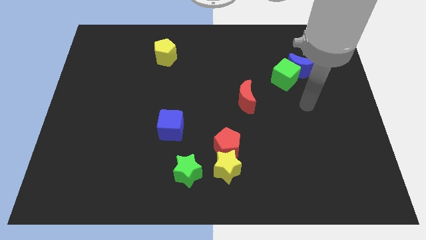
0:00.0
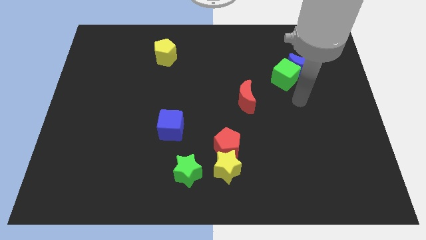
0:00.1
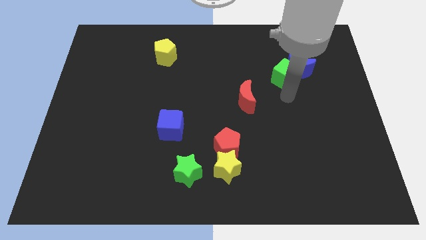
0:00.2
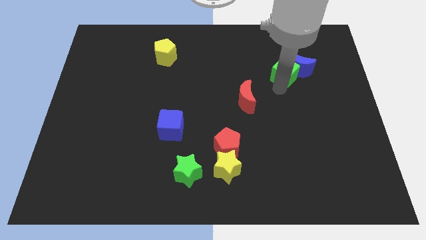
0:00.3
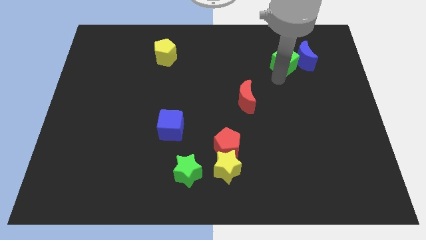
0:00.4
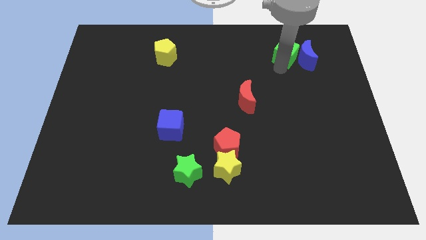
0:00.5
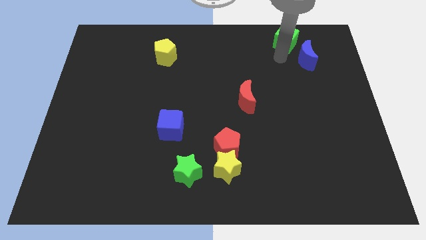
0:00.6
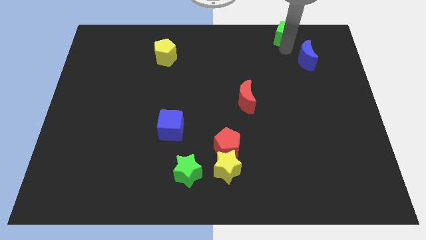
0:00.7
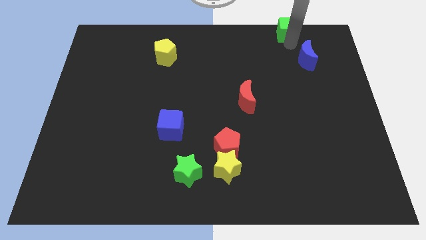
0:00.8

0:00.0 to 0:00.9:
separate the blue moon from the green cube

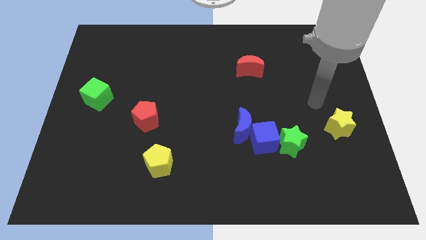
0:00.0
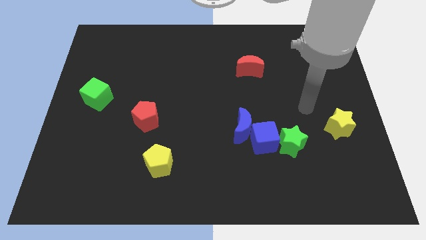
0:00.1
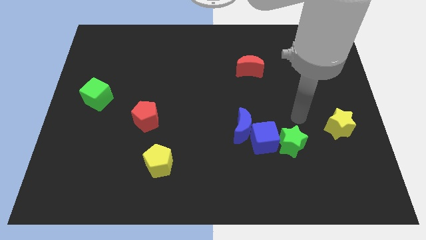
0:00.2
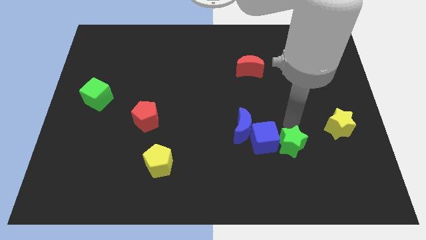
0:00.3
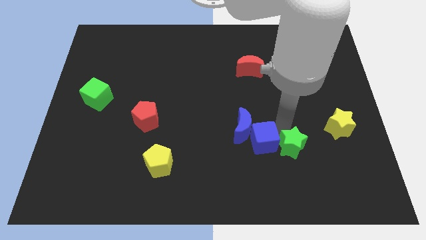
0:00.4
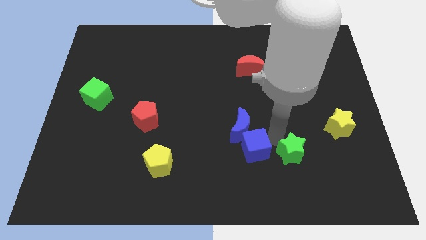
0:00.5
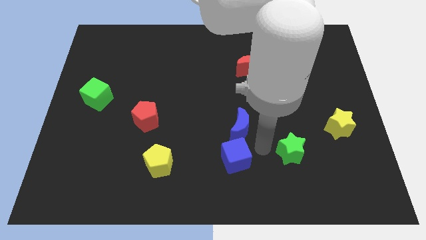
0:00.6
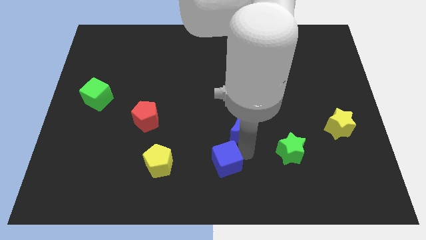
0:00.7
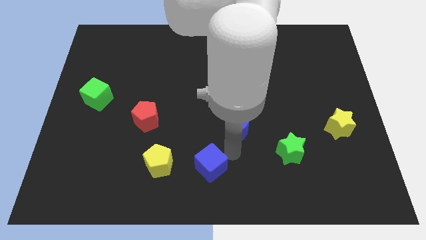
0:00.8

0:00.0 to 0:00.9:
move the blue moon away from the blue cube

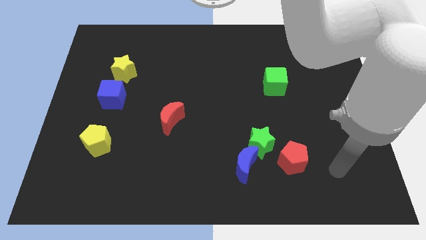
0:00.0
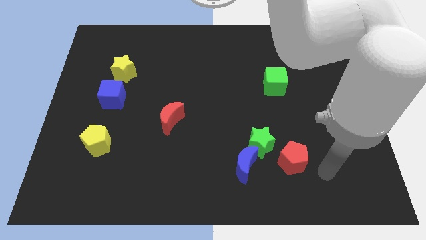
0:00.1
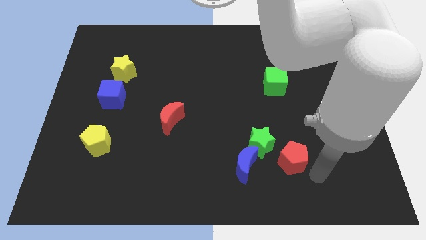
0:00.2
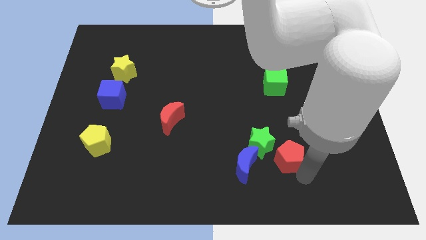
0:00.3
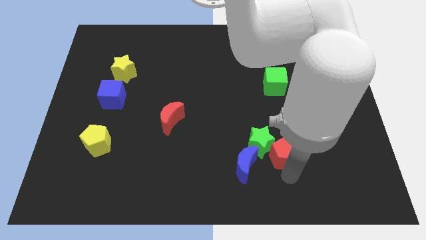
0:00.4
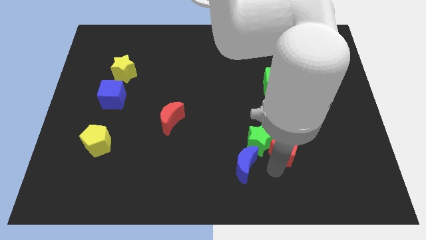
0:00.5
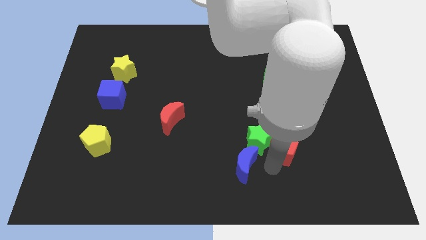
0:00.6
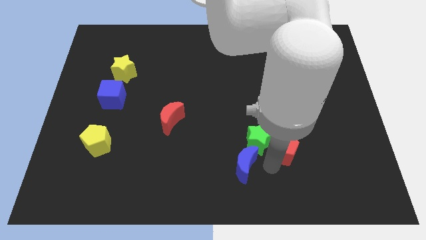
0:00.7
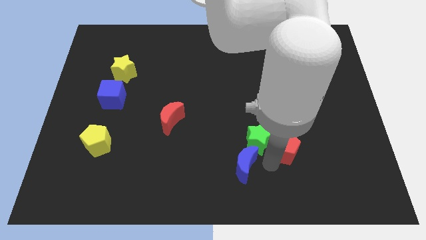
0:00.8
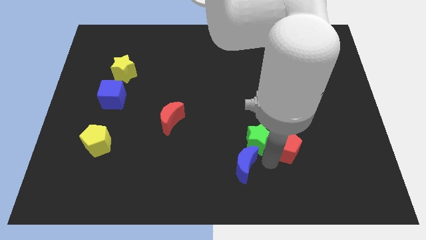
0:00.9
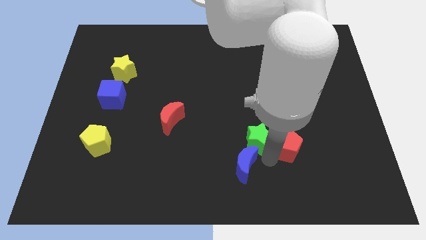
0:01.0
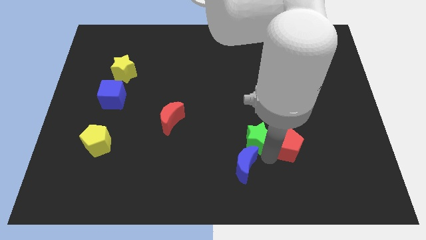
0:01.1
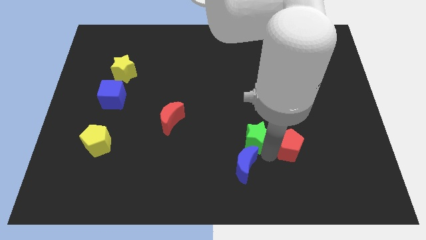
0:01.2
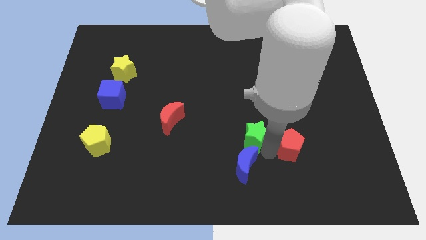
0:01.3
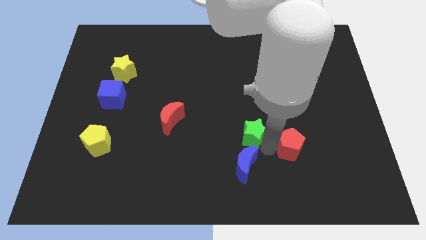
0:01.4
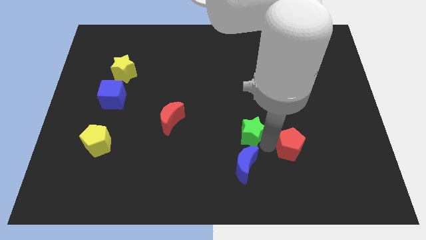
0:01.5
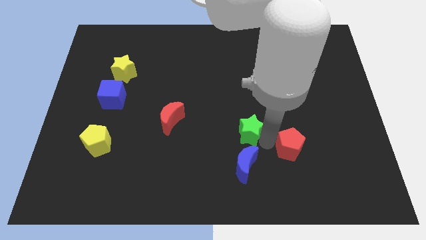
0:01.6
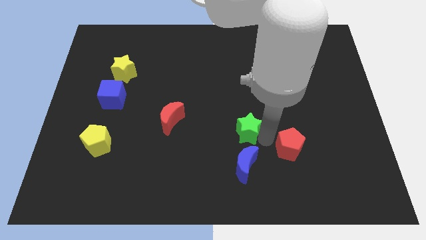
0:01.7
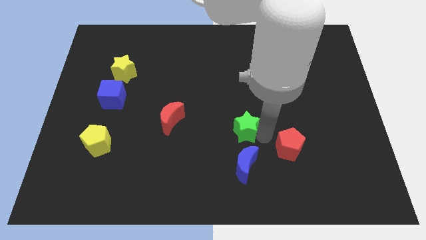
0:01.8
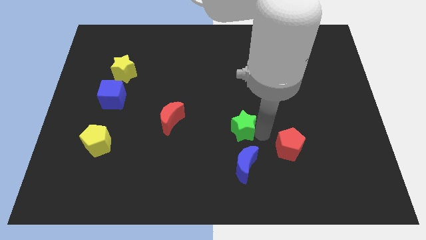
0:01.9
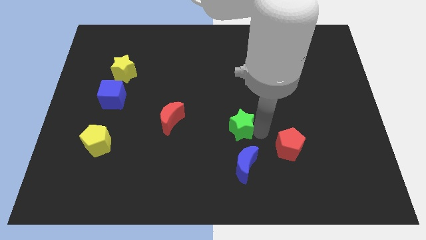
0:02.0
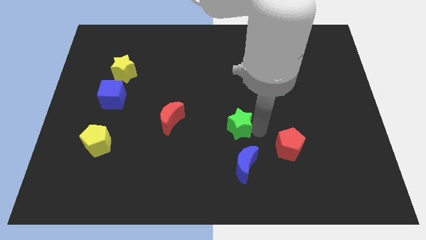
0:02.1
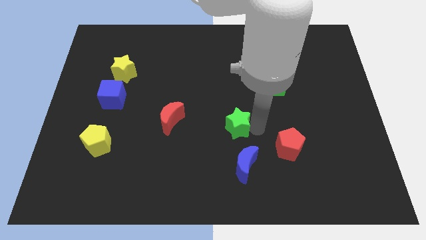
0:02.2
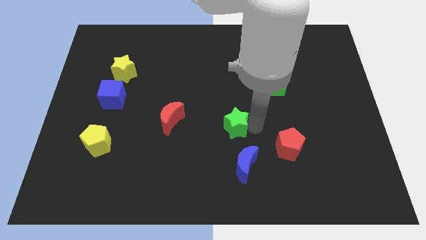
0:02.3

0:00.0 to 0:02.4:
separate the green star from the blue moon and red pentagon

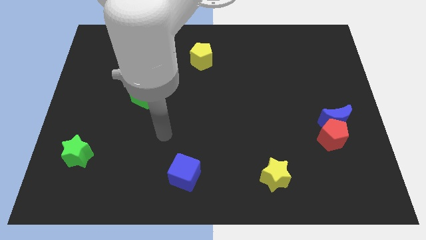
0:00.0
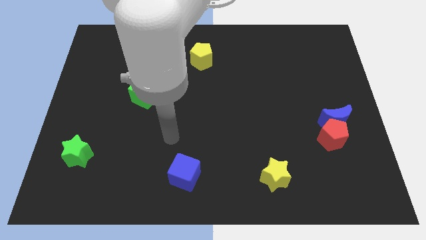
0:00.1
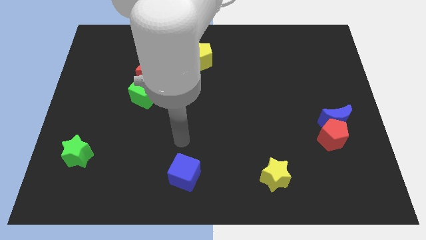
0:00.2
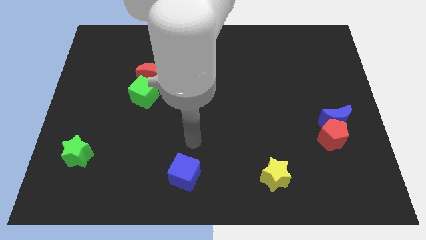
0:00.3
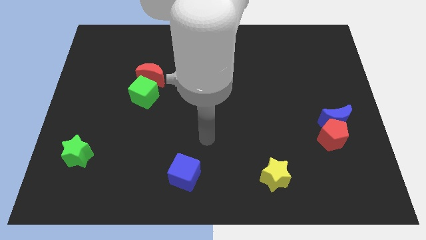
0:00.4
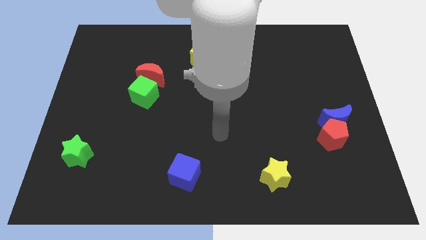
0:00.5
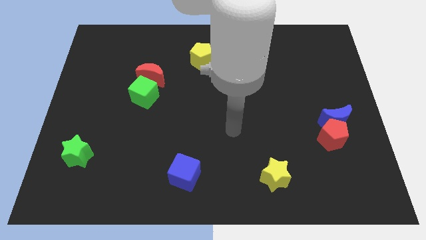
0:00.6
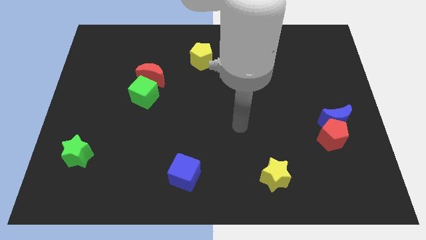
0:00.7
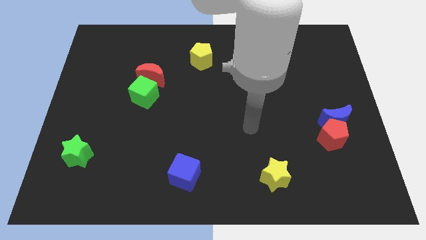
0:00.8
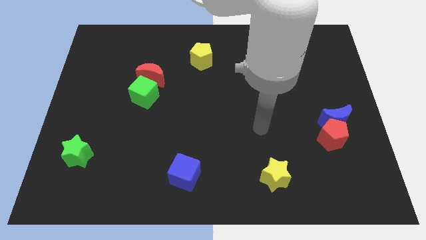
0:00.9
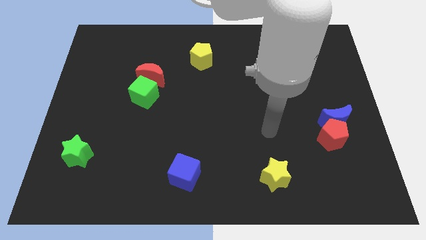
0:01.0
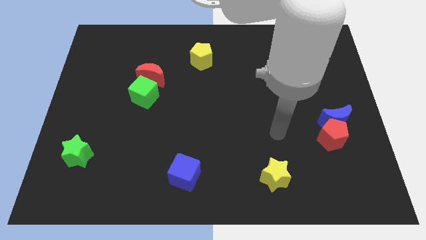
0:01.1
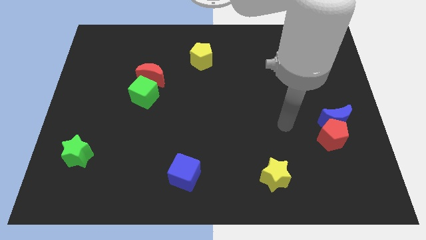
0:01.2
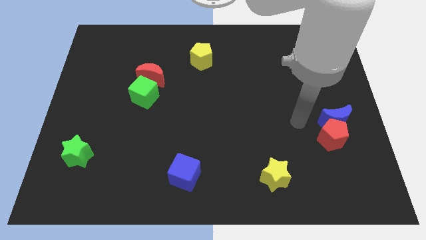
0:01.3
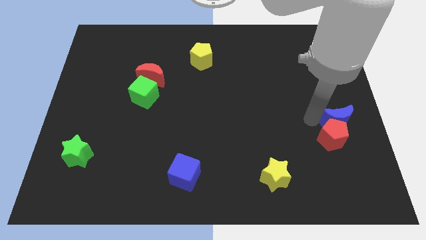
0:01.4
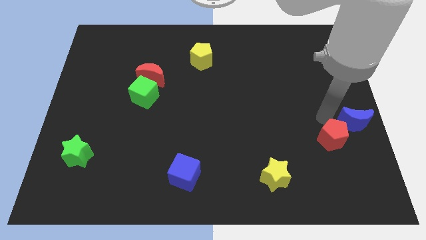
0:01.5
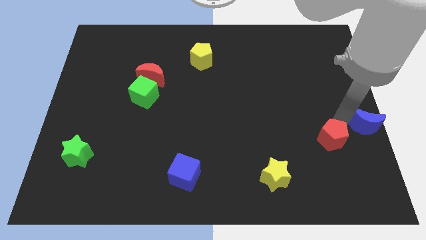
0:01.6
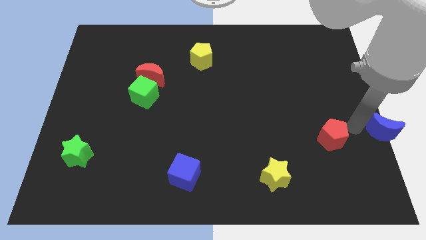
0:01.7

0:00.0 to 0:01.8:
move the red pentagon away from the blue moon

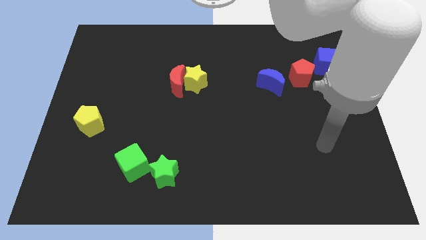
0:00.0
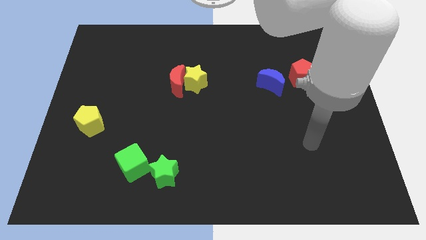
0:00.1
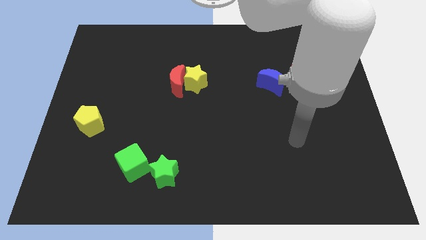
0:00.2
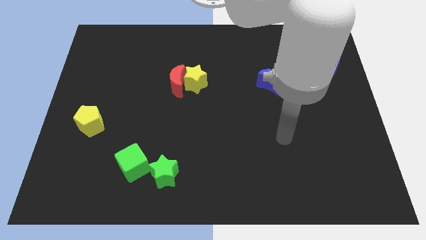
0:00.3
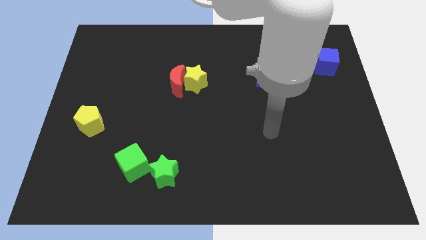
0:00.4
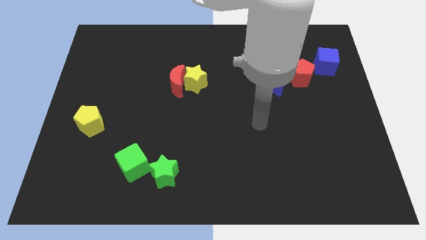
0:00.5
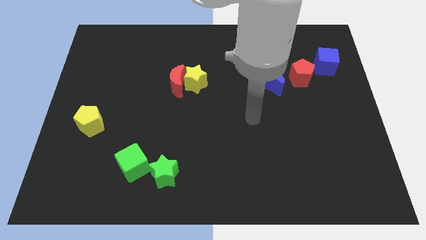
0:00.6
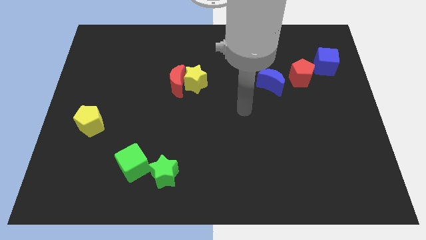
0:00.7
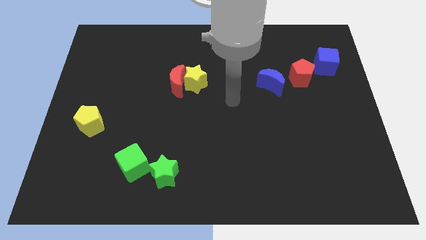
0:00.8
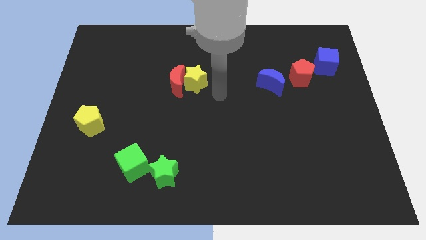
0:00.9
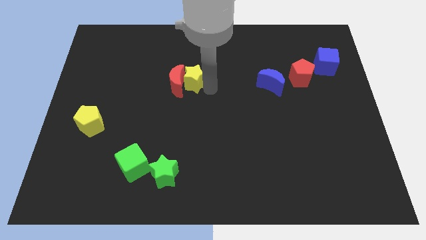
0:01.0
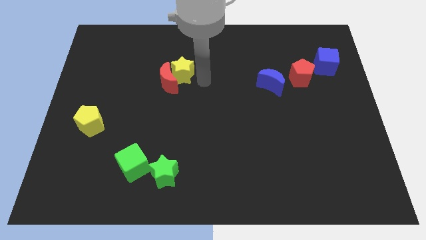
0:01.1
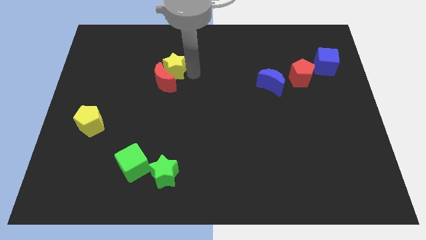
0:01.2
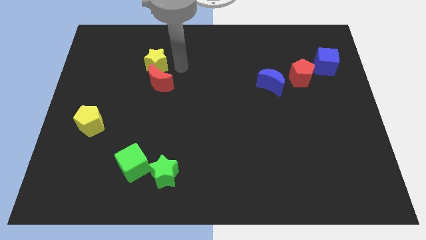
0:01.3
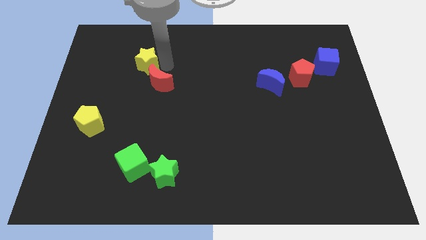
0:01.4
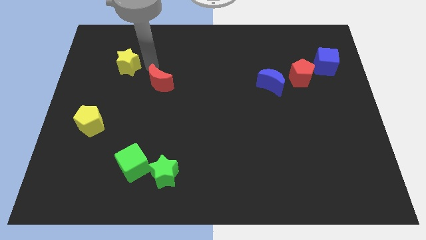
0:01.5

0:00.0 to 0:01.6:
pull the red moon apart from the yellow star

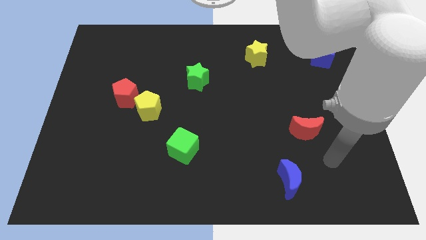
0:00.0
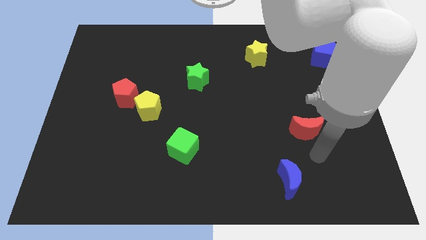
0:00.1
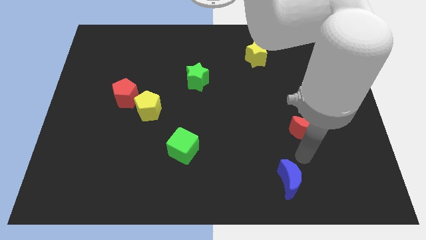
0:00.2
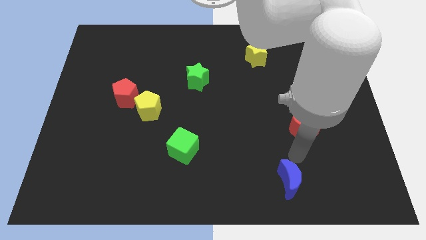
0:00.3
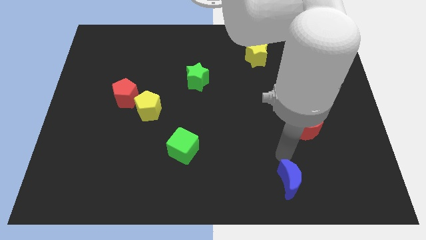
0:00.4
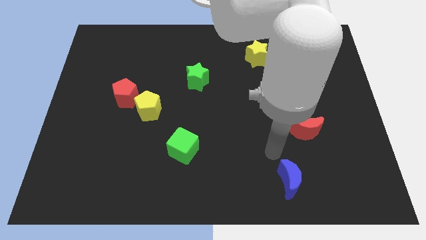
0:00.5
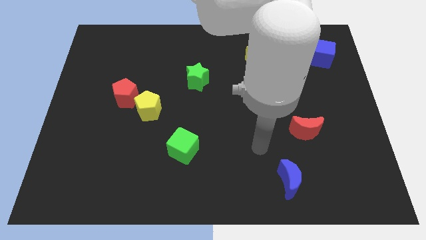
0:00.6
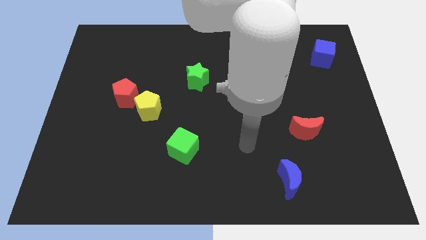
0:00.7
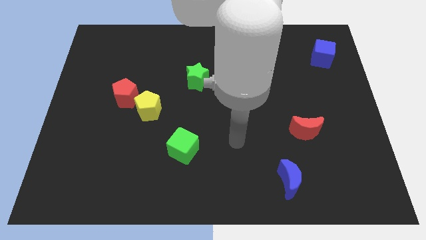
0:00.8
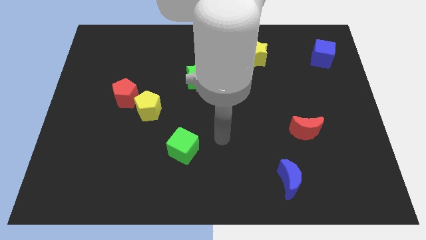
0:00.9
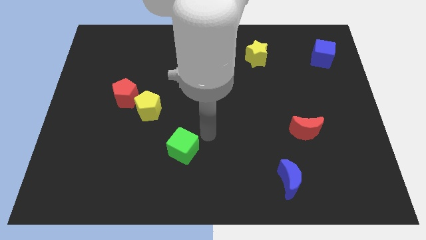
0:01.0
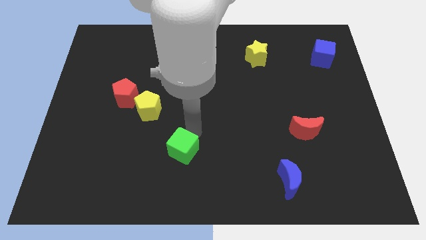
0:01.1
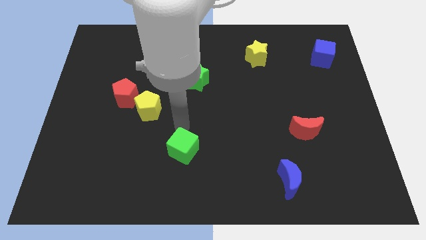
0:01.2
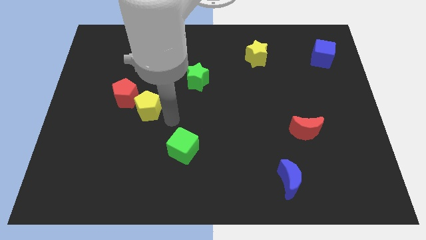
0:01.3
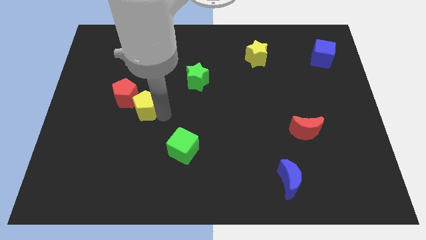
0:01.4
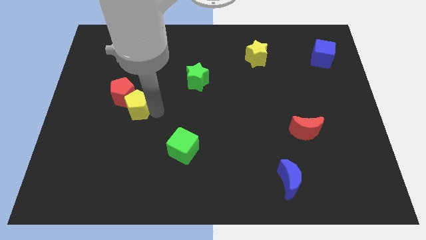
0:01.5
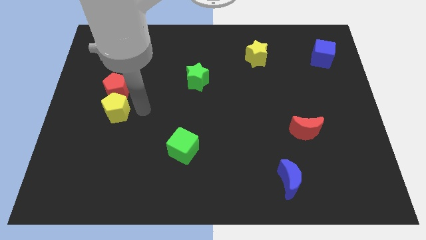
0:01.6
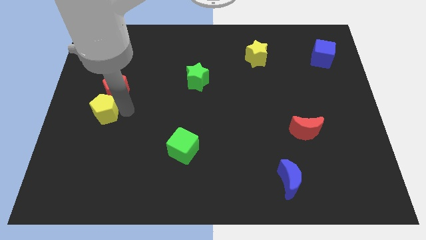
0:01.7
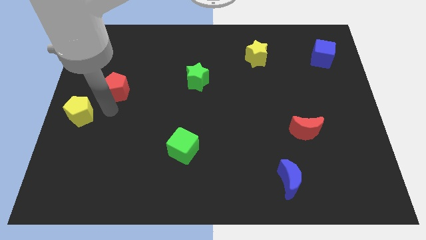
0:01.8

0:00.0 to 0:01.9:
separate the red pentagon from the yellow pentagon
